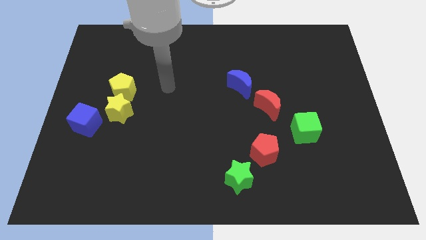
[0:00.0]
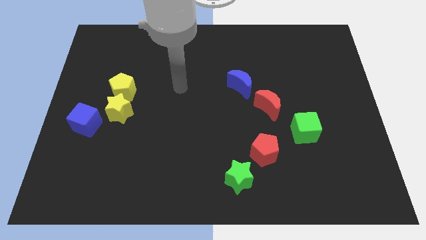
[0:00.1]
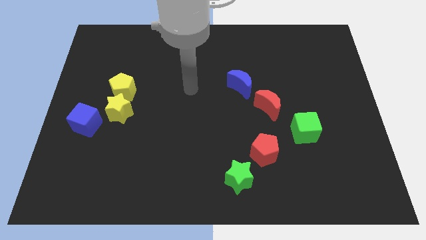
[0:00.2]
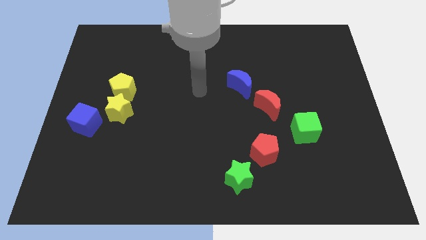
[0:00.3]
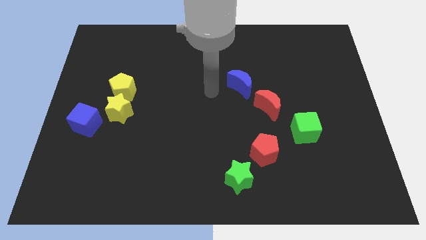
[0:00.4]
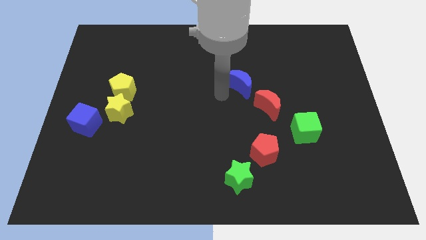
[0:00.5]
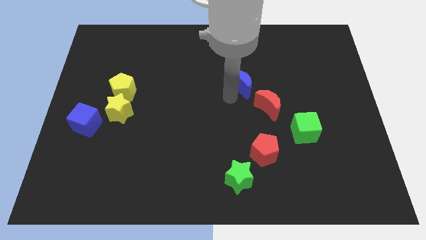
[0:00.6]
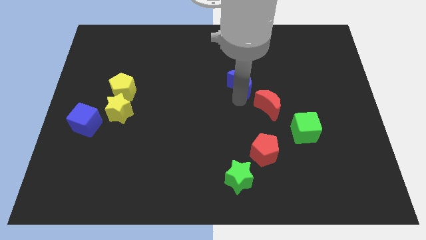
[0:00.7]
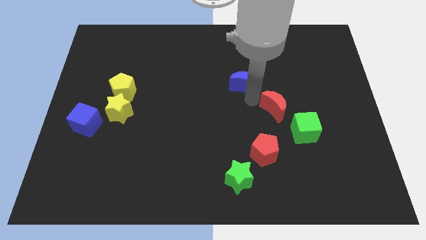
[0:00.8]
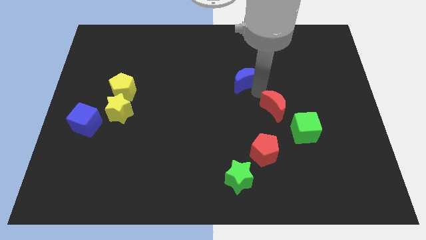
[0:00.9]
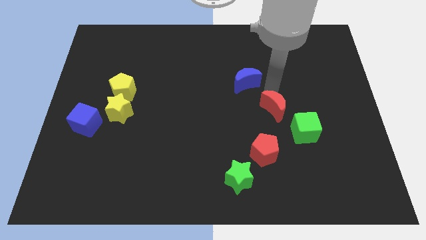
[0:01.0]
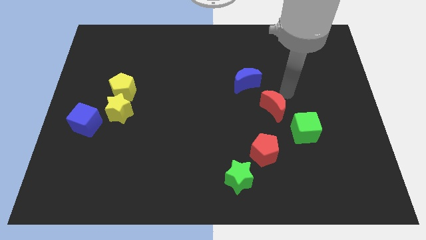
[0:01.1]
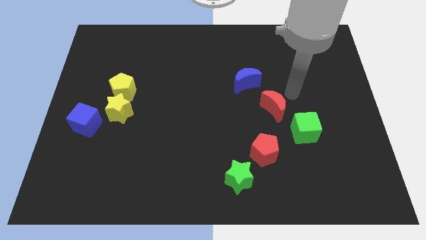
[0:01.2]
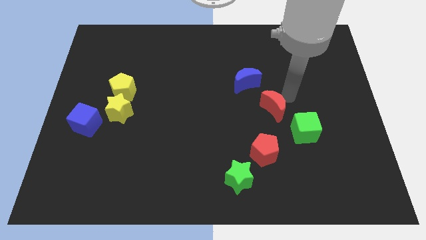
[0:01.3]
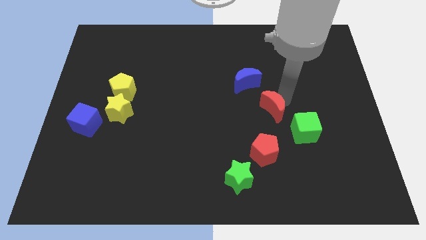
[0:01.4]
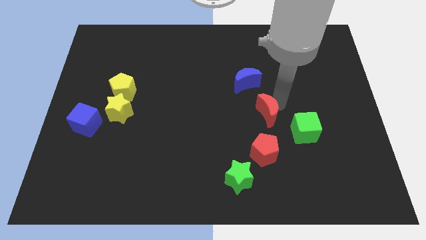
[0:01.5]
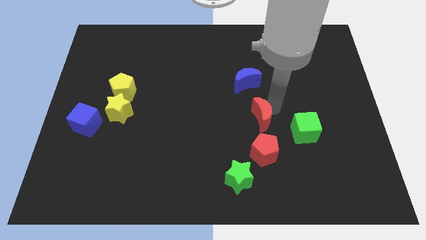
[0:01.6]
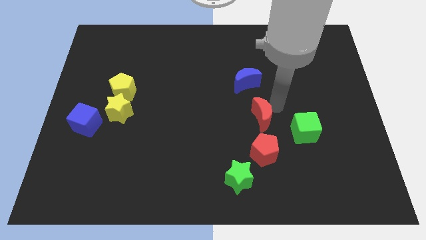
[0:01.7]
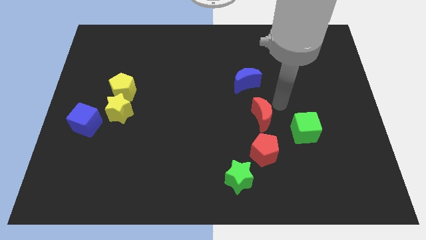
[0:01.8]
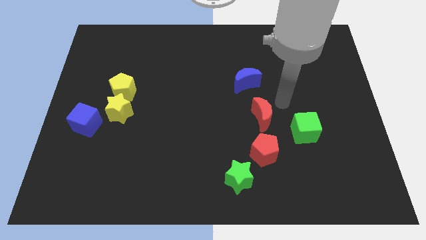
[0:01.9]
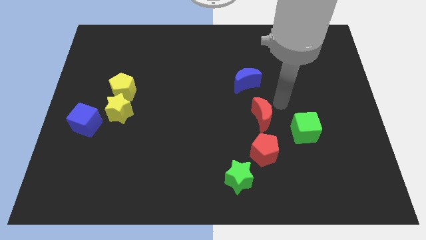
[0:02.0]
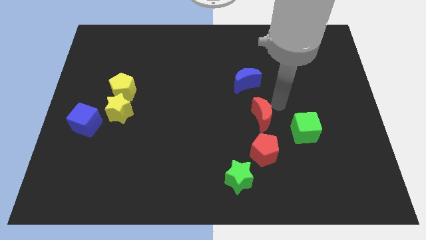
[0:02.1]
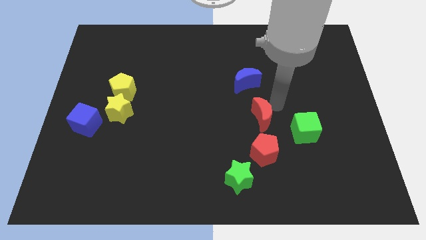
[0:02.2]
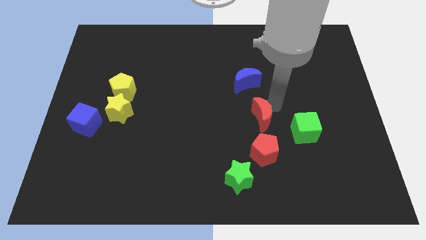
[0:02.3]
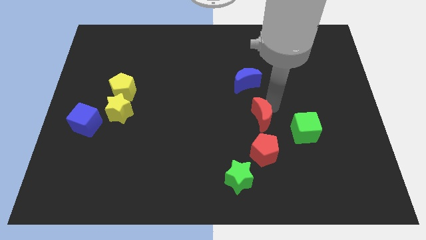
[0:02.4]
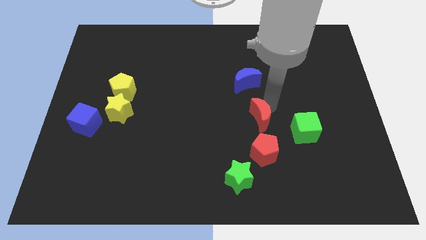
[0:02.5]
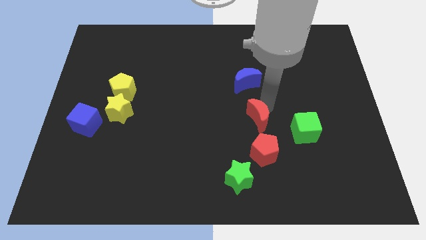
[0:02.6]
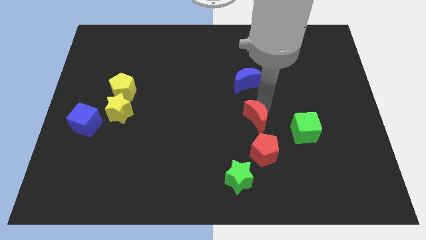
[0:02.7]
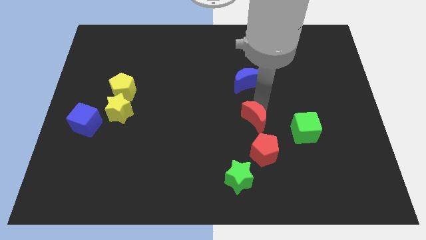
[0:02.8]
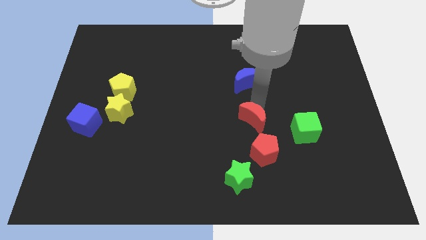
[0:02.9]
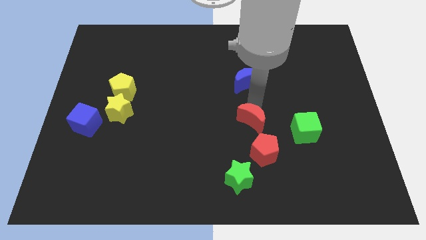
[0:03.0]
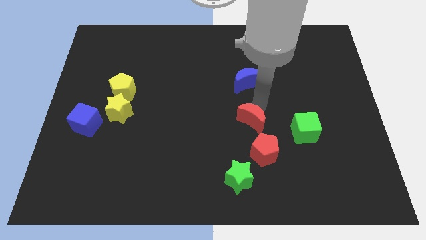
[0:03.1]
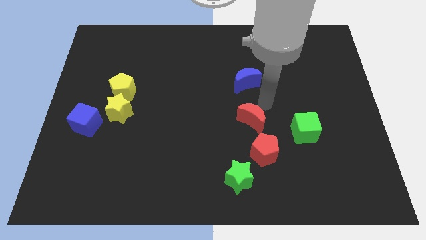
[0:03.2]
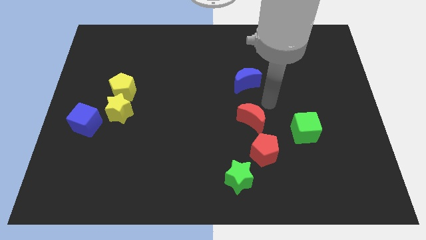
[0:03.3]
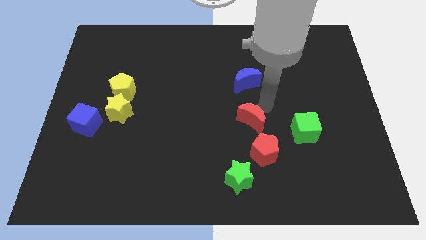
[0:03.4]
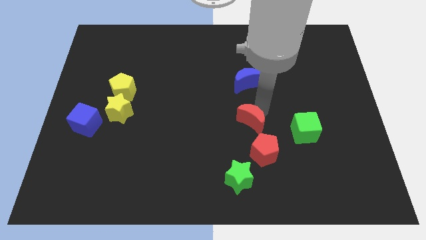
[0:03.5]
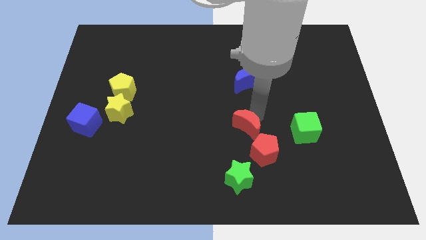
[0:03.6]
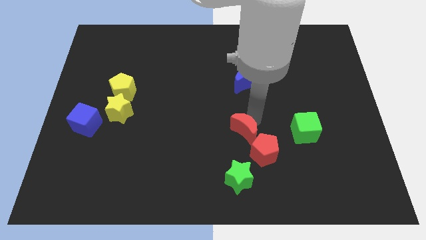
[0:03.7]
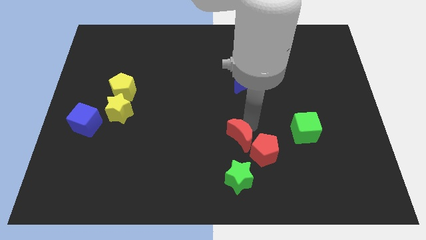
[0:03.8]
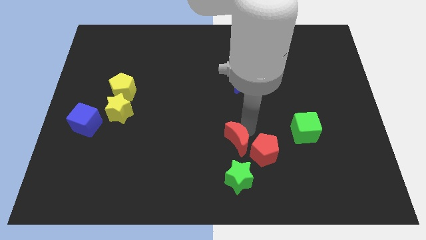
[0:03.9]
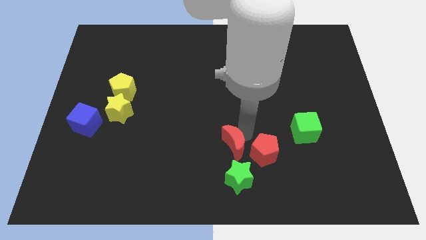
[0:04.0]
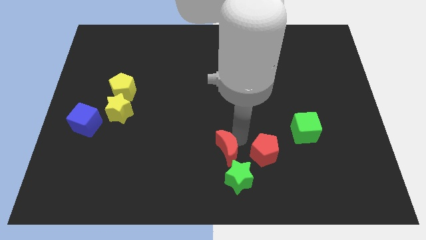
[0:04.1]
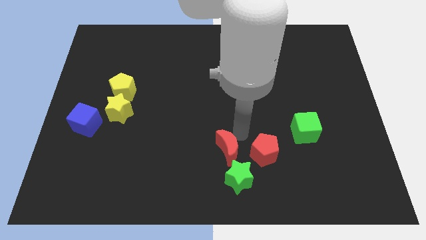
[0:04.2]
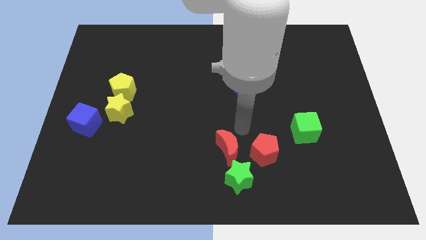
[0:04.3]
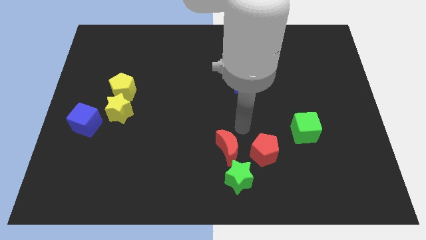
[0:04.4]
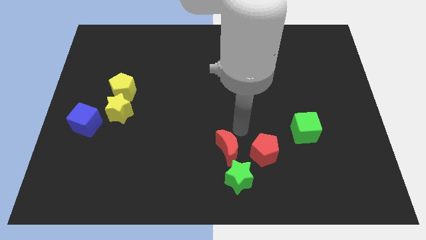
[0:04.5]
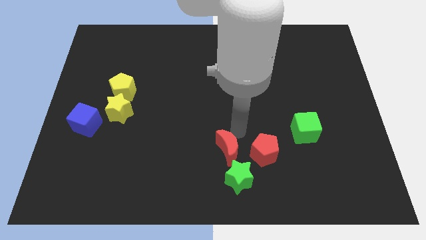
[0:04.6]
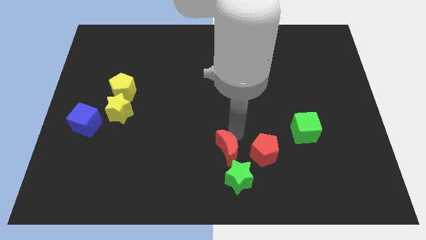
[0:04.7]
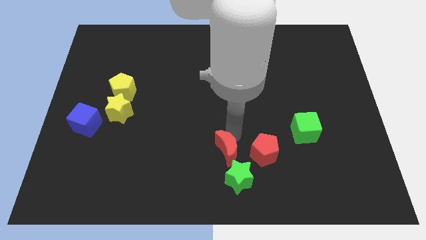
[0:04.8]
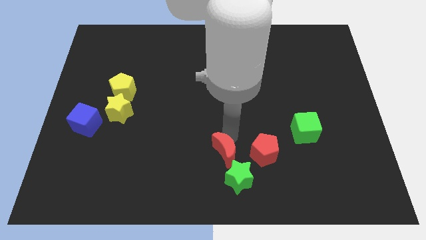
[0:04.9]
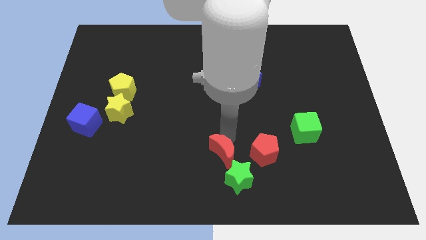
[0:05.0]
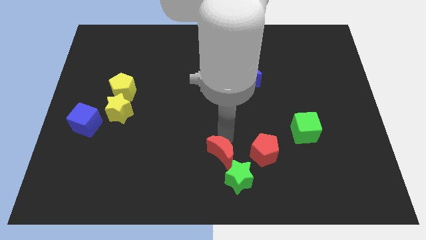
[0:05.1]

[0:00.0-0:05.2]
push the red moon to the bottom side
